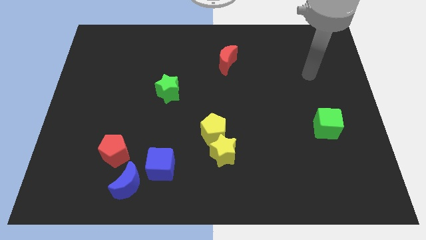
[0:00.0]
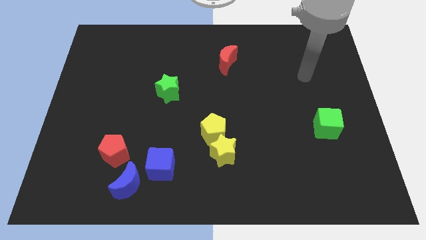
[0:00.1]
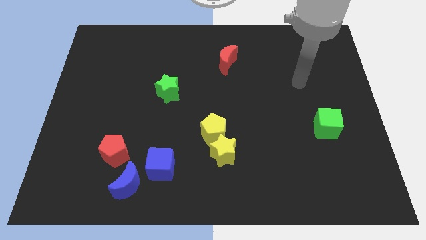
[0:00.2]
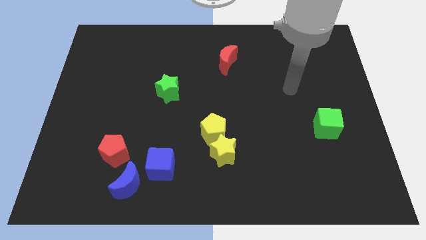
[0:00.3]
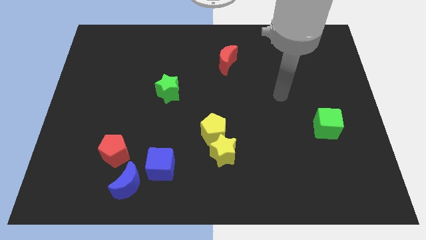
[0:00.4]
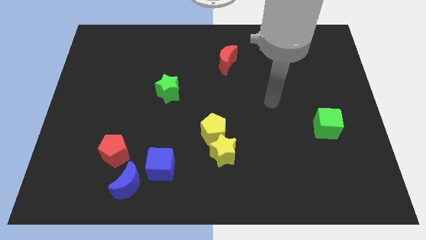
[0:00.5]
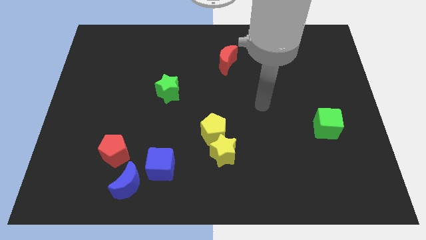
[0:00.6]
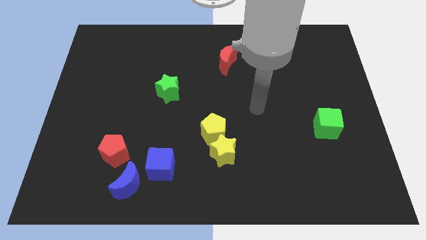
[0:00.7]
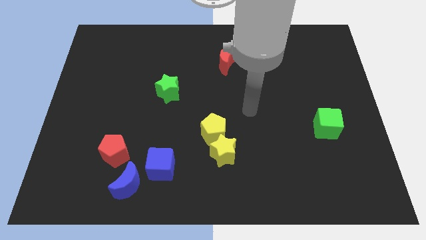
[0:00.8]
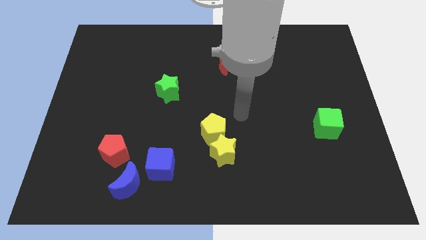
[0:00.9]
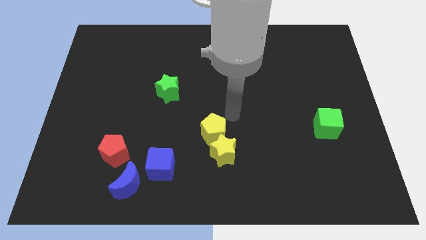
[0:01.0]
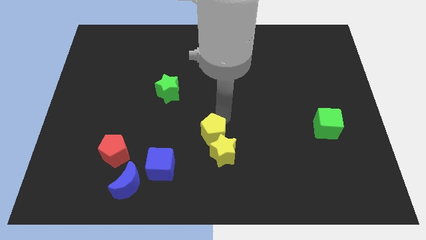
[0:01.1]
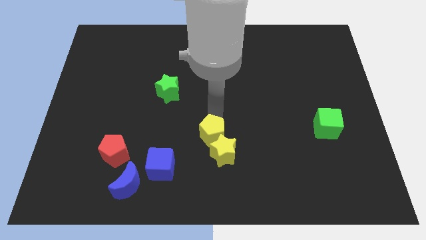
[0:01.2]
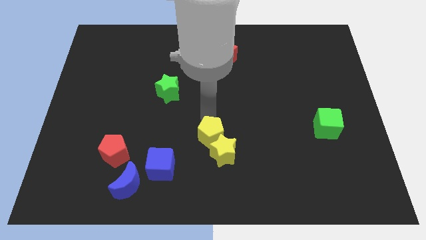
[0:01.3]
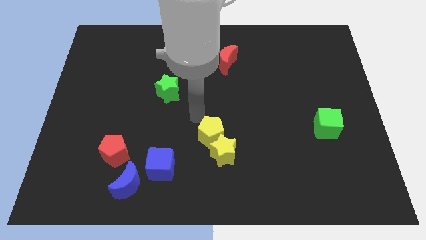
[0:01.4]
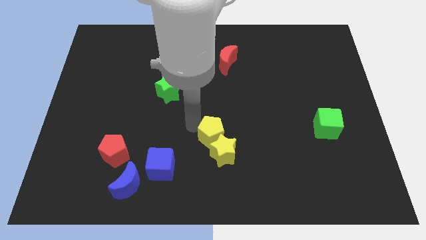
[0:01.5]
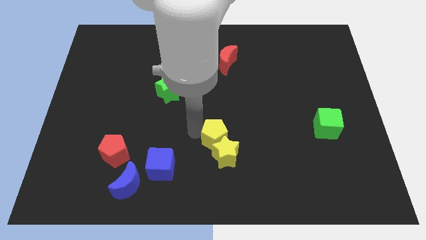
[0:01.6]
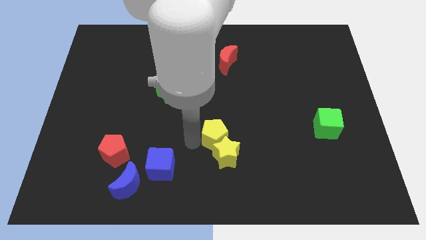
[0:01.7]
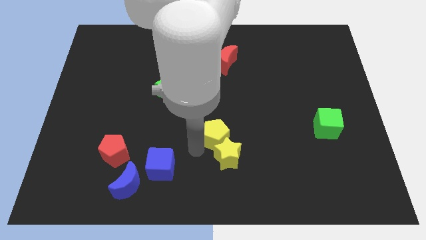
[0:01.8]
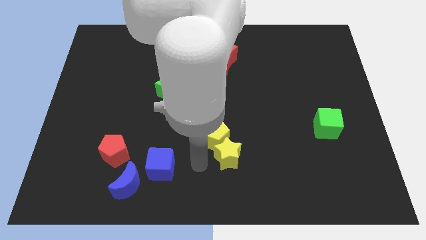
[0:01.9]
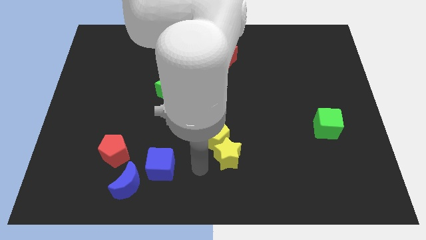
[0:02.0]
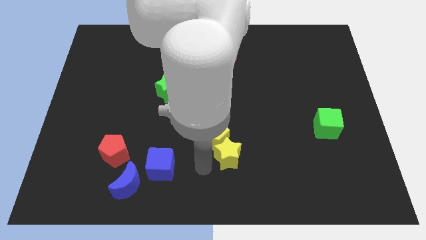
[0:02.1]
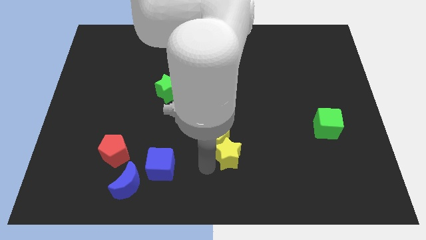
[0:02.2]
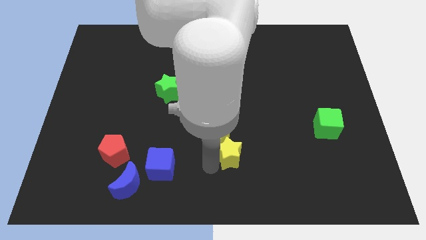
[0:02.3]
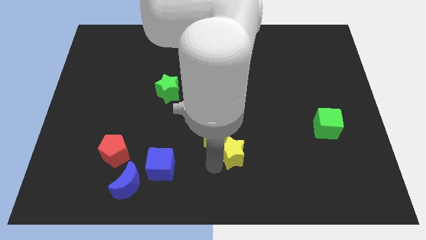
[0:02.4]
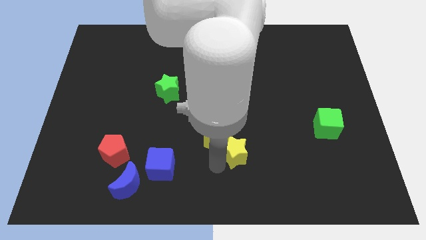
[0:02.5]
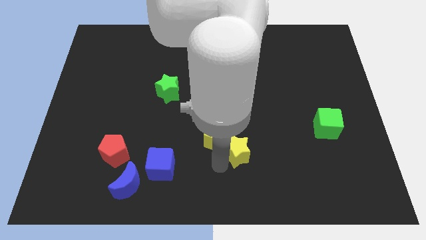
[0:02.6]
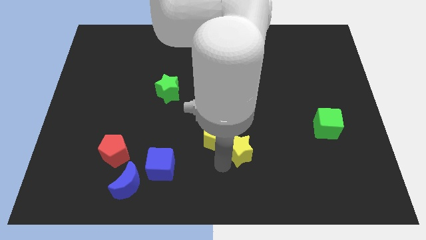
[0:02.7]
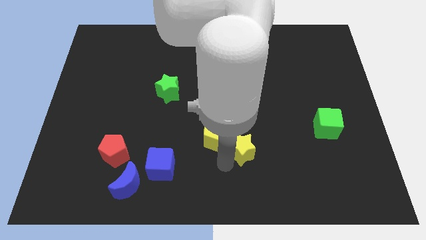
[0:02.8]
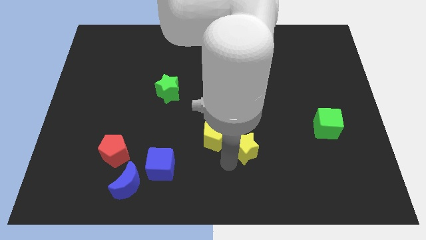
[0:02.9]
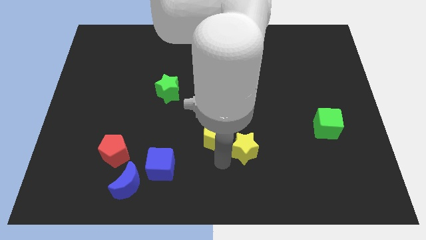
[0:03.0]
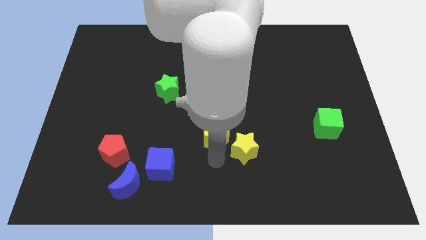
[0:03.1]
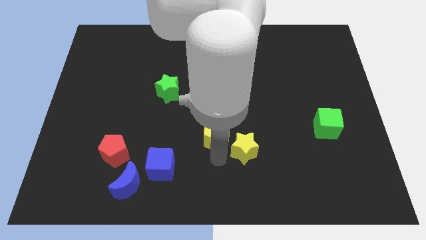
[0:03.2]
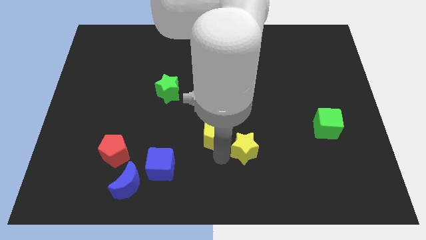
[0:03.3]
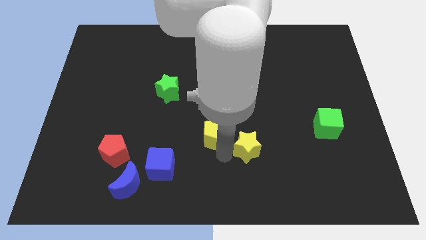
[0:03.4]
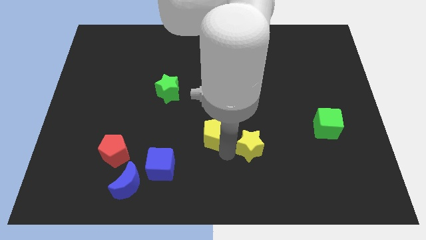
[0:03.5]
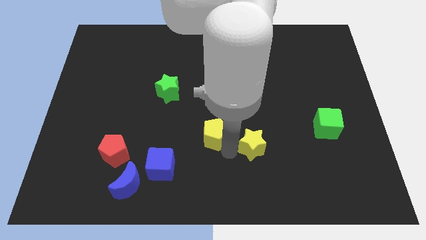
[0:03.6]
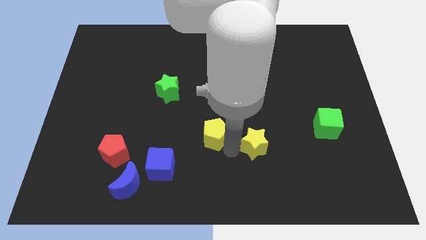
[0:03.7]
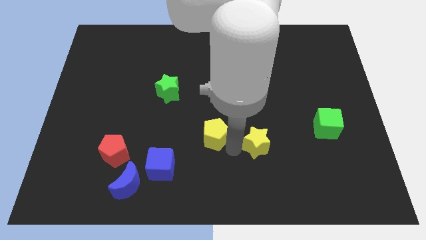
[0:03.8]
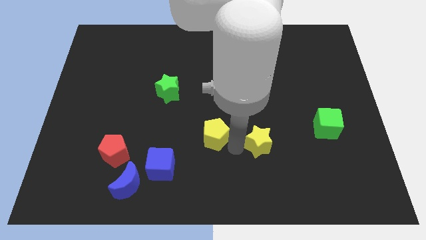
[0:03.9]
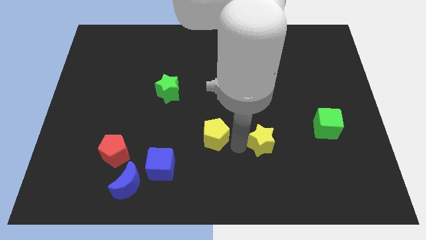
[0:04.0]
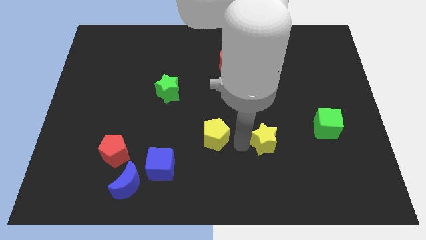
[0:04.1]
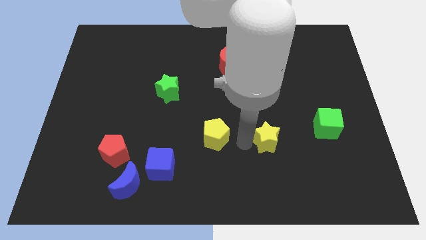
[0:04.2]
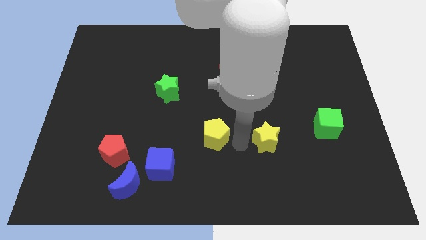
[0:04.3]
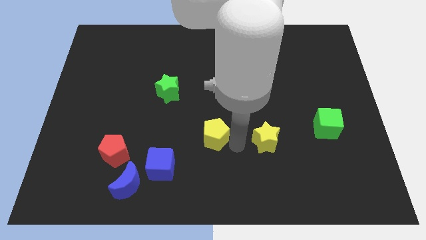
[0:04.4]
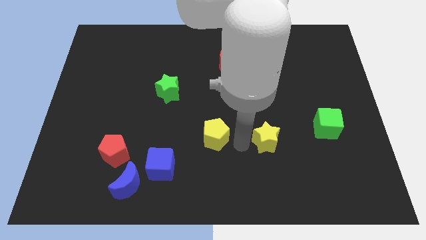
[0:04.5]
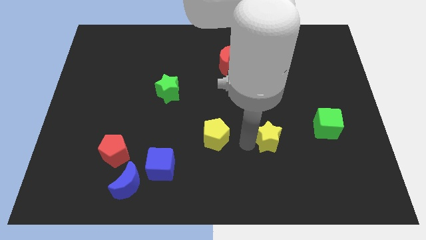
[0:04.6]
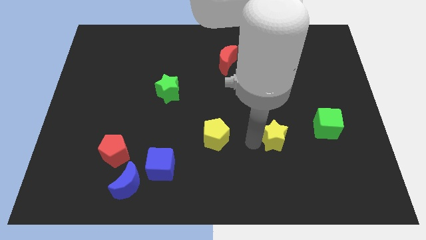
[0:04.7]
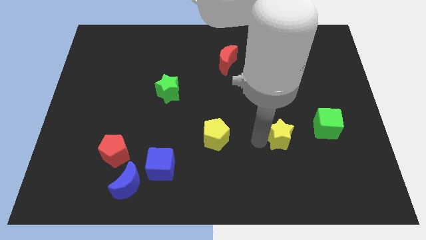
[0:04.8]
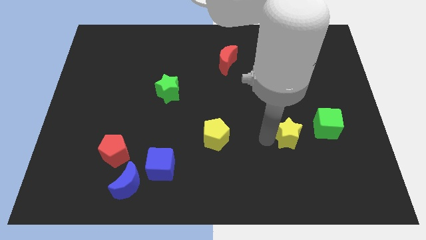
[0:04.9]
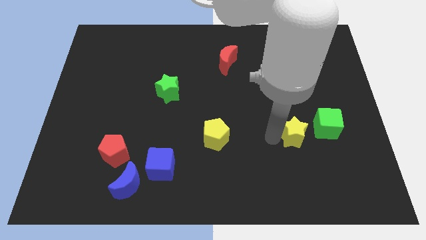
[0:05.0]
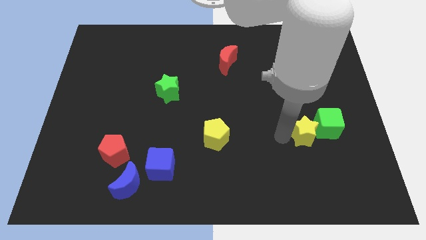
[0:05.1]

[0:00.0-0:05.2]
put the yellow star towards the green cube

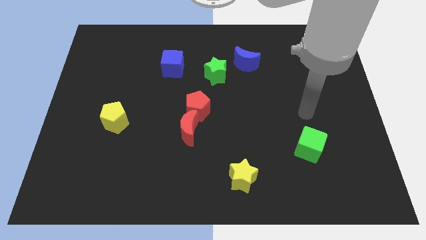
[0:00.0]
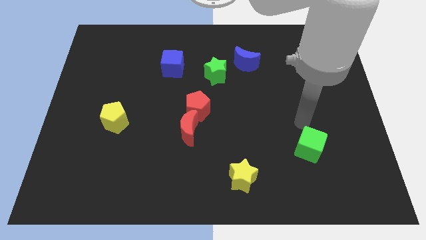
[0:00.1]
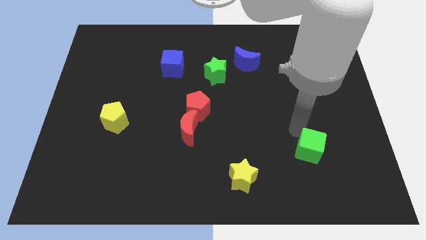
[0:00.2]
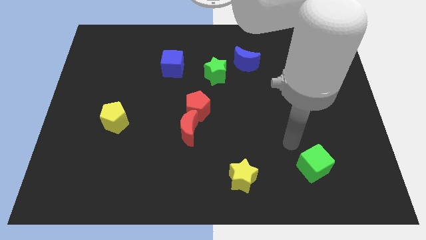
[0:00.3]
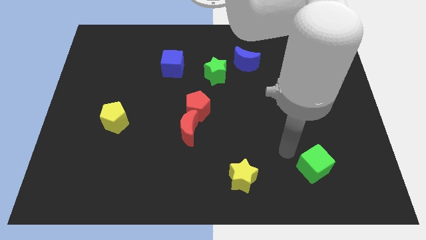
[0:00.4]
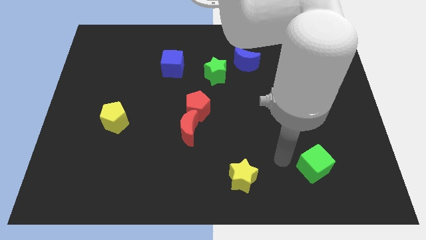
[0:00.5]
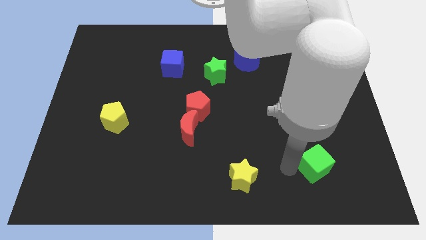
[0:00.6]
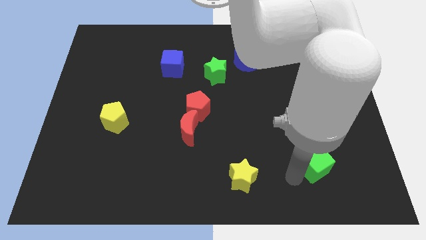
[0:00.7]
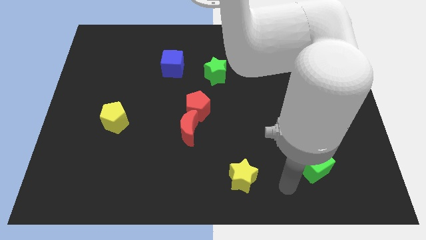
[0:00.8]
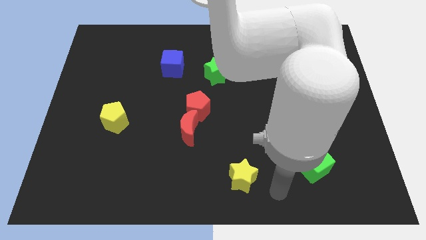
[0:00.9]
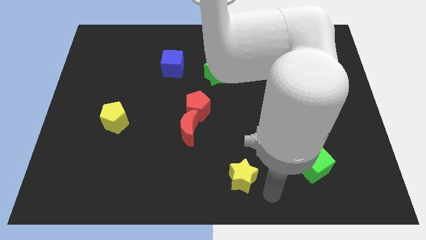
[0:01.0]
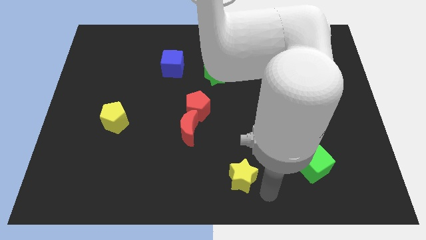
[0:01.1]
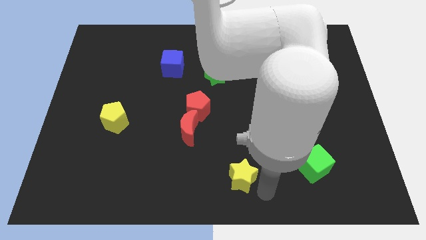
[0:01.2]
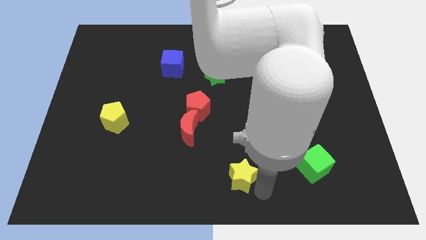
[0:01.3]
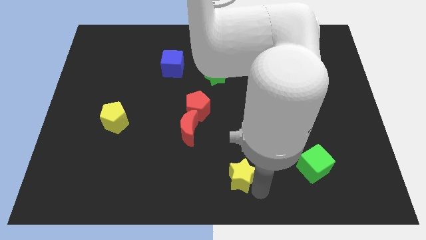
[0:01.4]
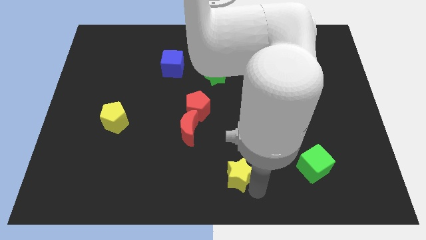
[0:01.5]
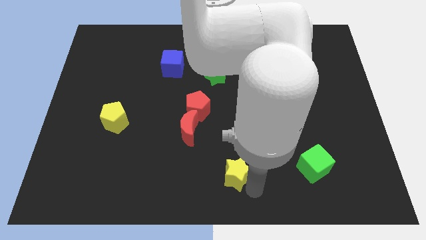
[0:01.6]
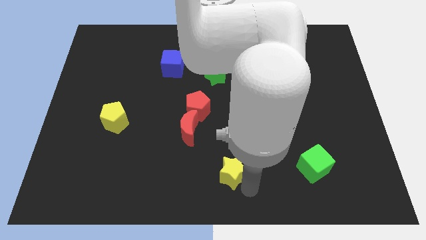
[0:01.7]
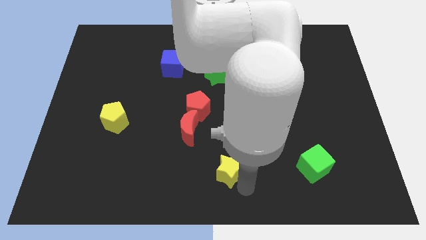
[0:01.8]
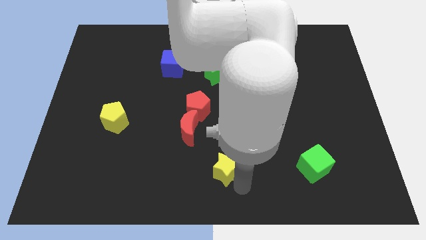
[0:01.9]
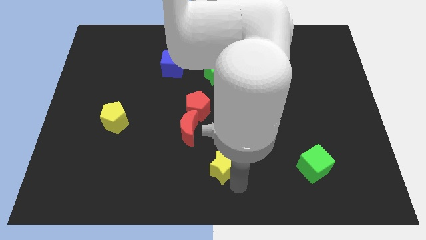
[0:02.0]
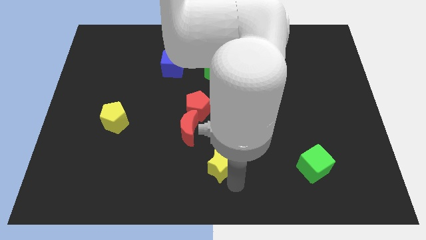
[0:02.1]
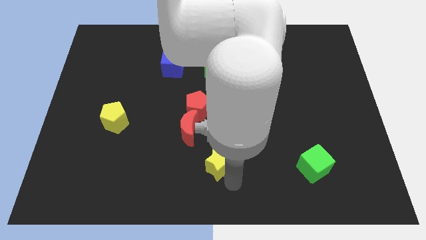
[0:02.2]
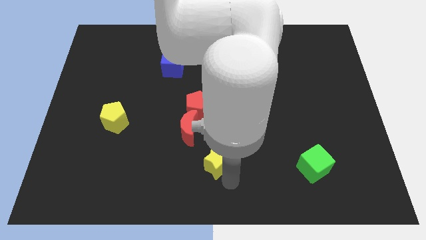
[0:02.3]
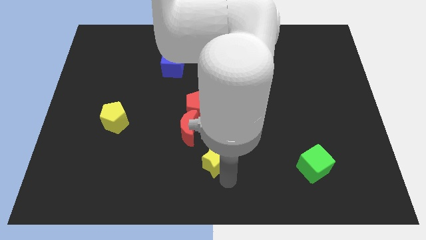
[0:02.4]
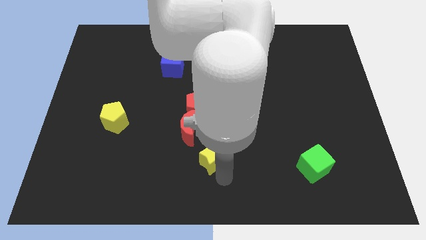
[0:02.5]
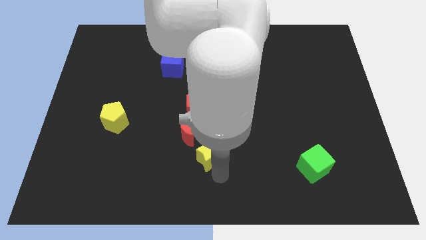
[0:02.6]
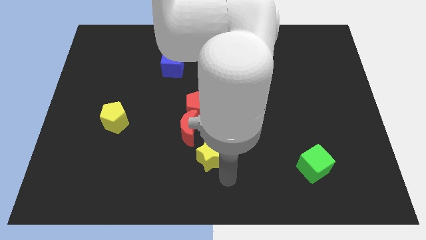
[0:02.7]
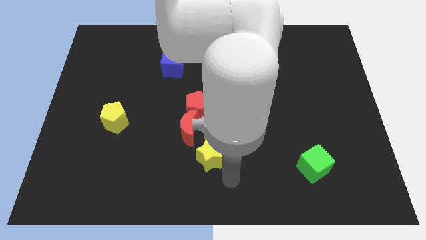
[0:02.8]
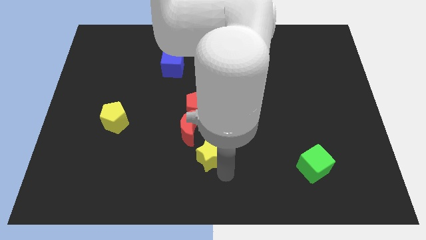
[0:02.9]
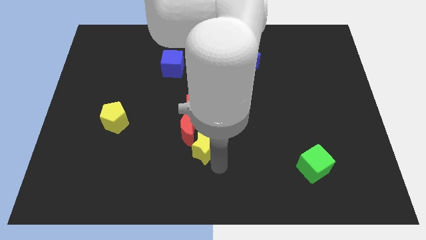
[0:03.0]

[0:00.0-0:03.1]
slide the yellow star close to the red moon
